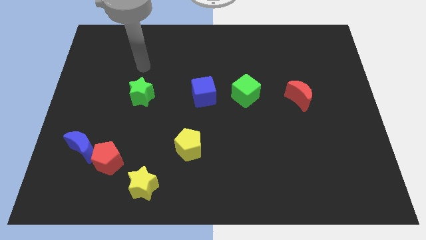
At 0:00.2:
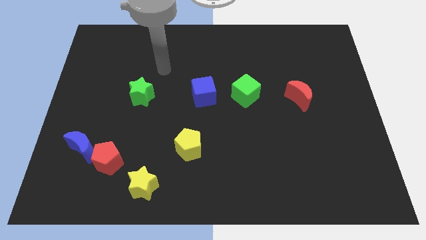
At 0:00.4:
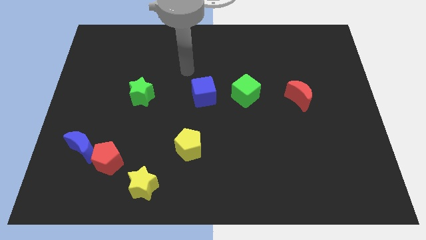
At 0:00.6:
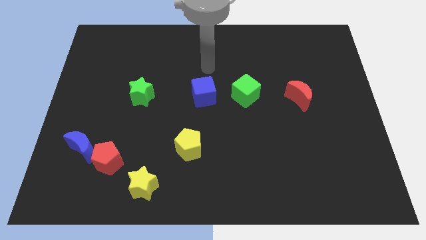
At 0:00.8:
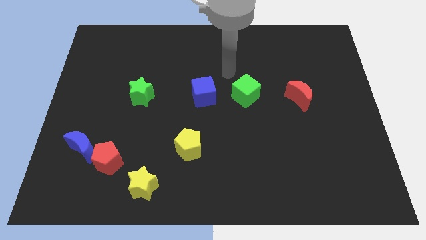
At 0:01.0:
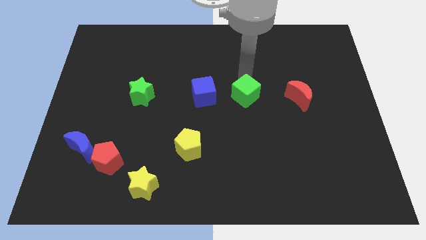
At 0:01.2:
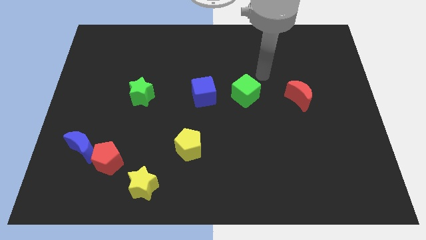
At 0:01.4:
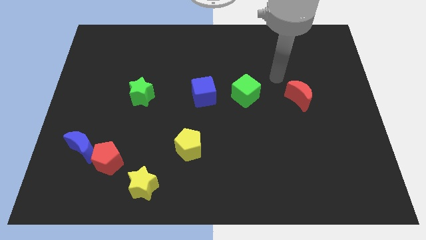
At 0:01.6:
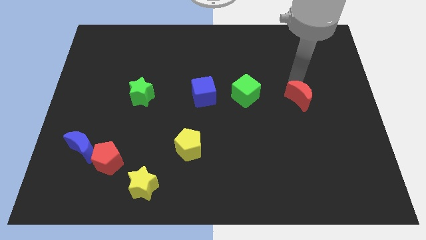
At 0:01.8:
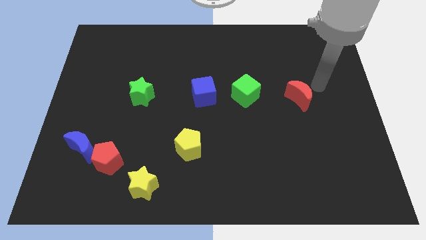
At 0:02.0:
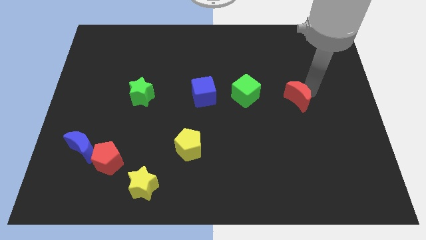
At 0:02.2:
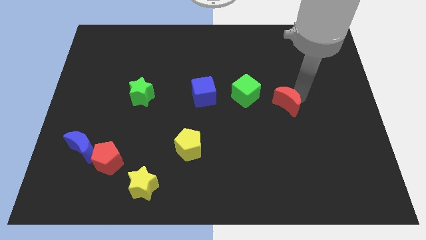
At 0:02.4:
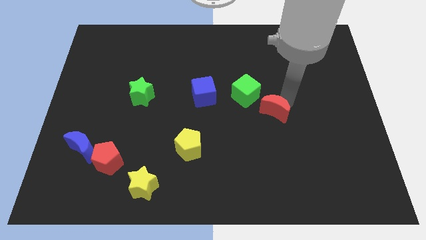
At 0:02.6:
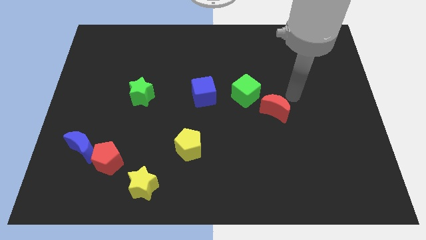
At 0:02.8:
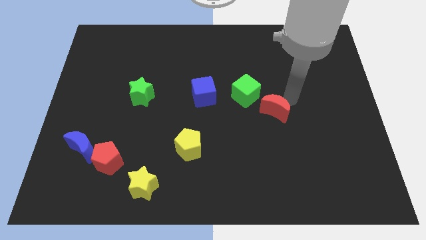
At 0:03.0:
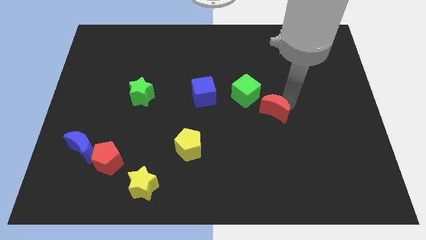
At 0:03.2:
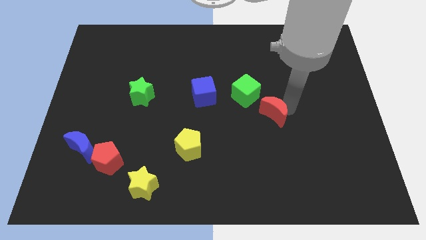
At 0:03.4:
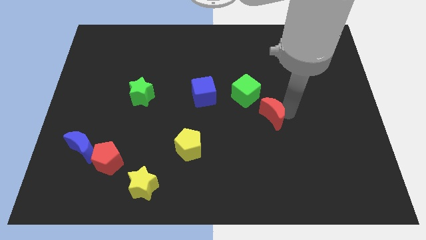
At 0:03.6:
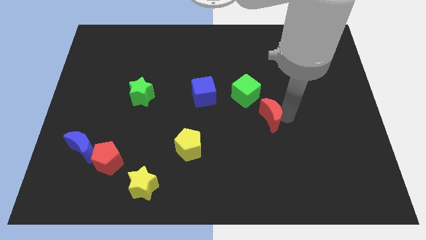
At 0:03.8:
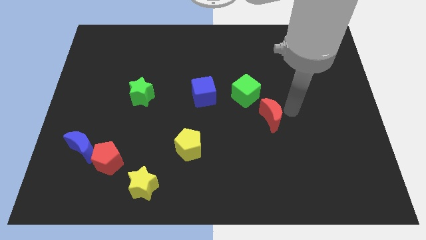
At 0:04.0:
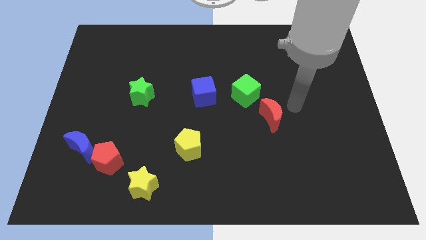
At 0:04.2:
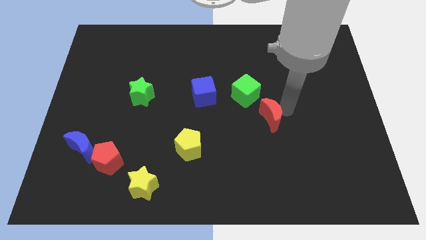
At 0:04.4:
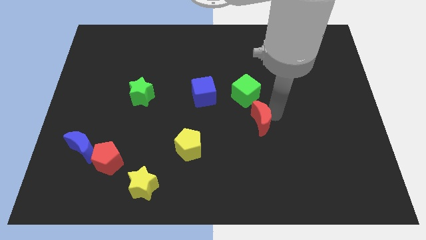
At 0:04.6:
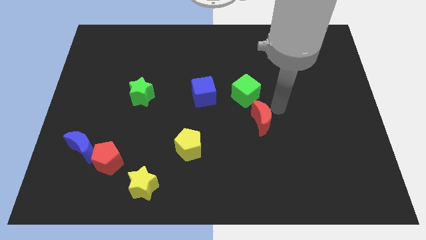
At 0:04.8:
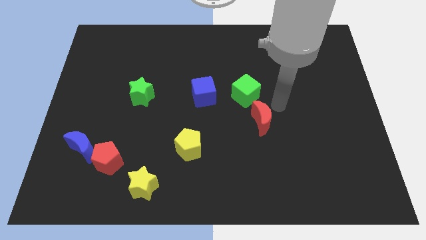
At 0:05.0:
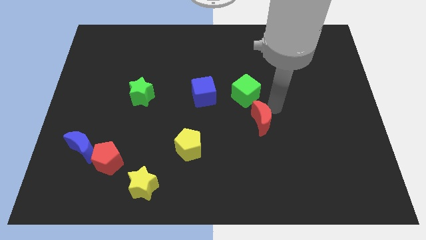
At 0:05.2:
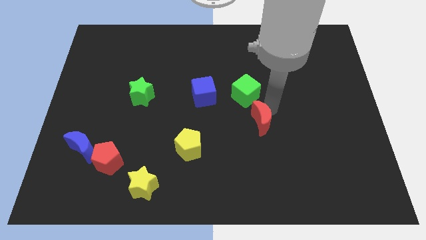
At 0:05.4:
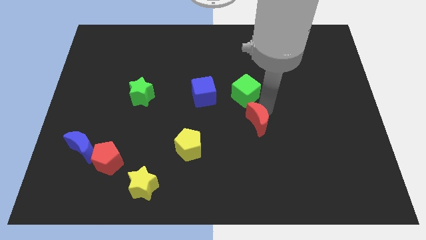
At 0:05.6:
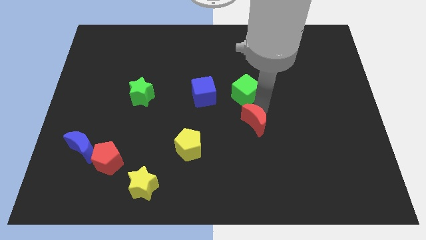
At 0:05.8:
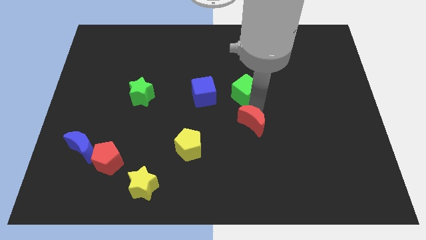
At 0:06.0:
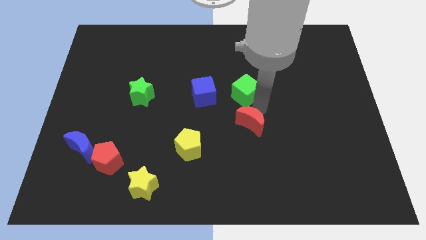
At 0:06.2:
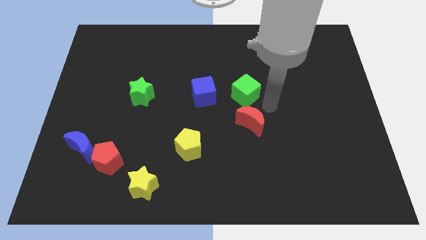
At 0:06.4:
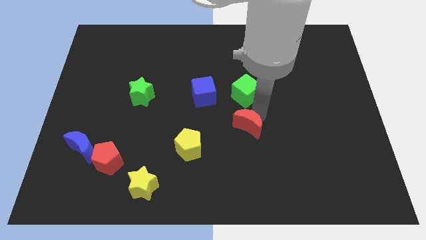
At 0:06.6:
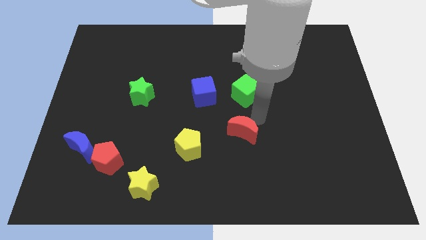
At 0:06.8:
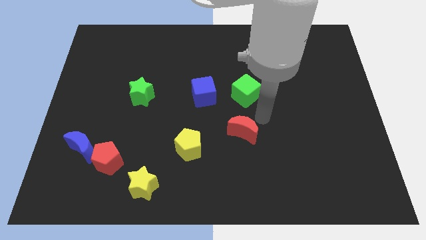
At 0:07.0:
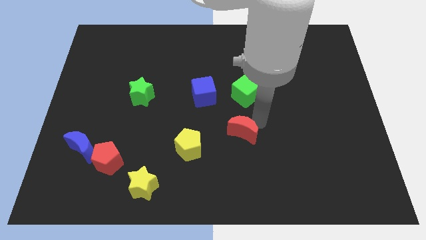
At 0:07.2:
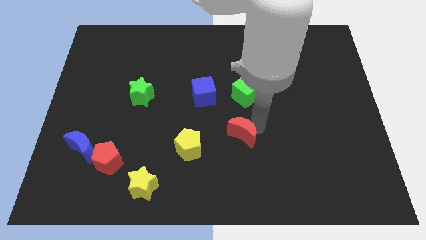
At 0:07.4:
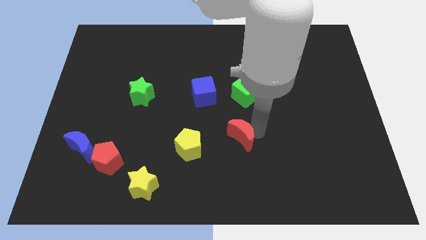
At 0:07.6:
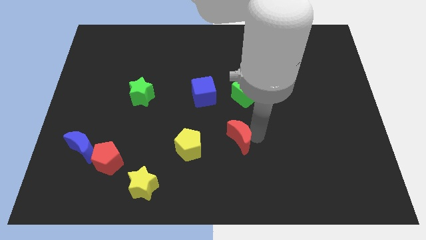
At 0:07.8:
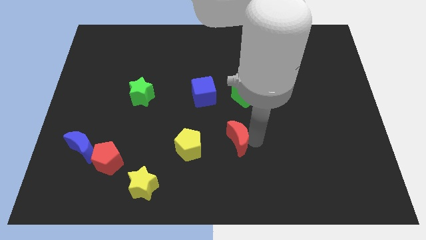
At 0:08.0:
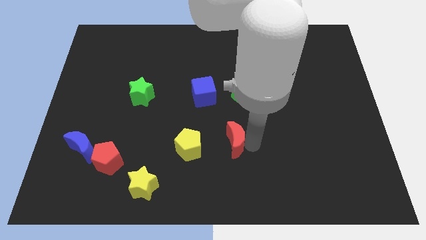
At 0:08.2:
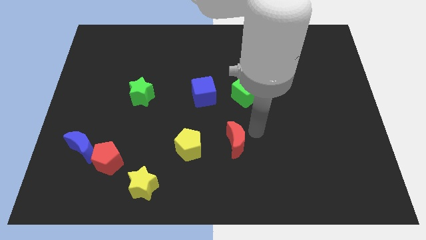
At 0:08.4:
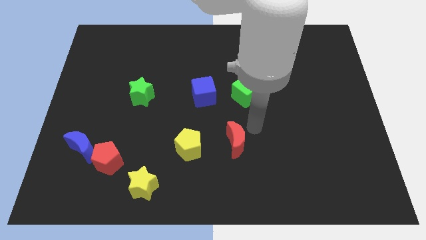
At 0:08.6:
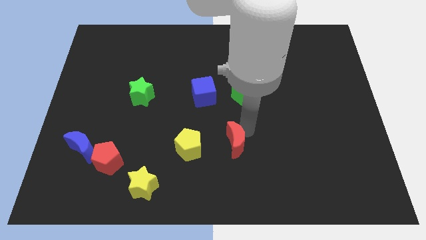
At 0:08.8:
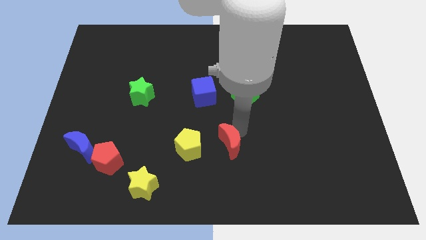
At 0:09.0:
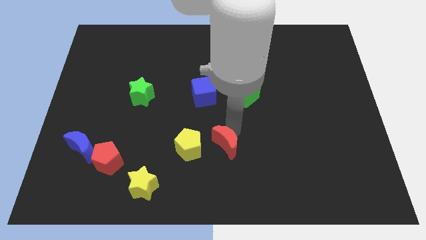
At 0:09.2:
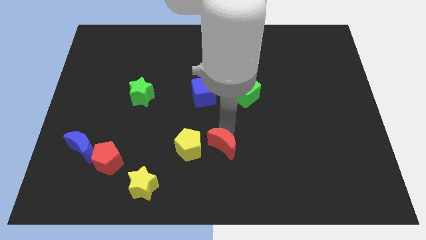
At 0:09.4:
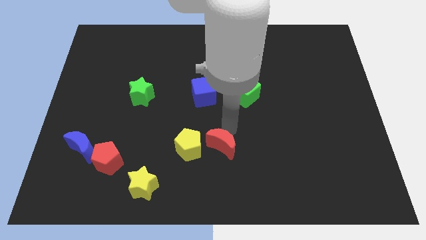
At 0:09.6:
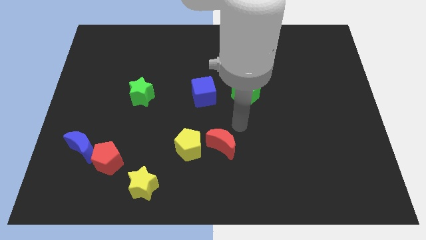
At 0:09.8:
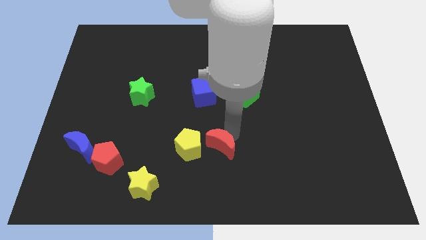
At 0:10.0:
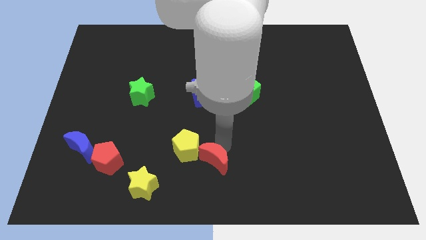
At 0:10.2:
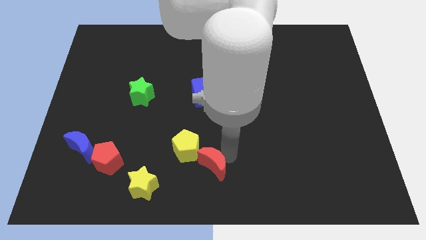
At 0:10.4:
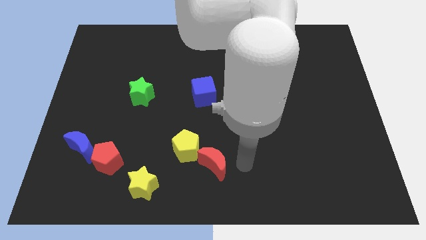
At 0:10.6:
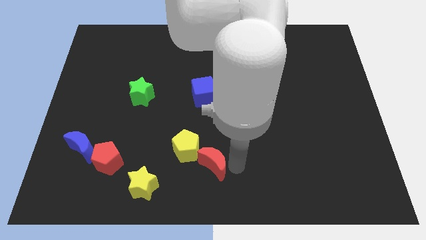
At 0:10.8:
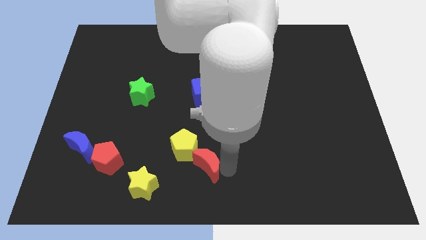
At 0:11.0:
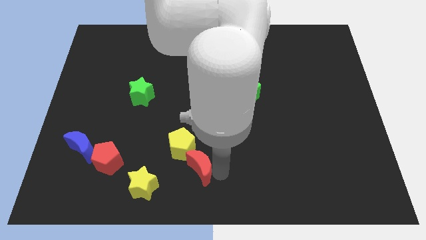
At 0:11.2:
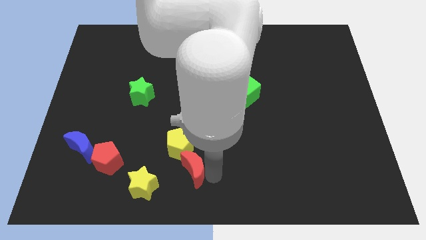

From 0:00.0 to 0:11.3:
move the red moon to the top right side of the yellow star

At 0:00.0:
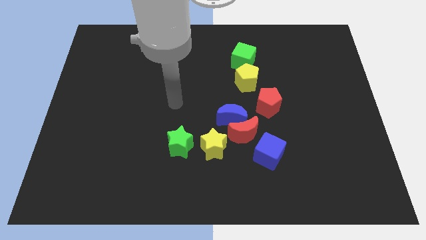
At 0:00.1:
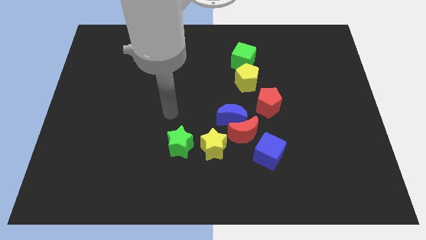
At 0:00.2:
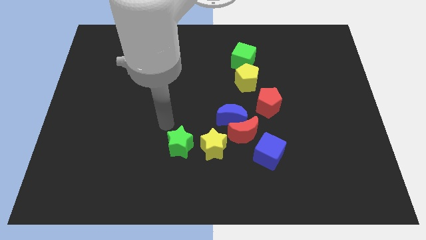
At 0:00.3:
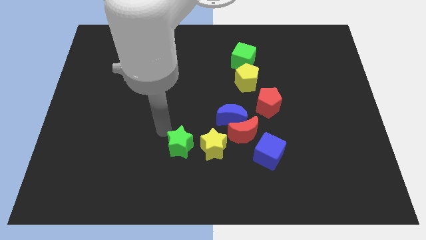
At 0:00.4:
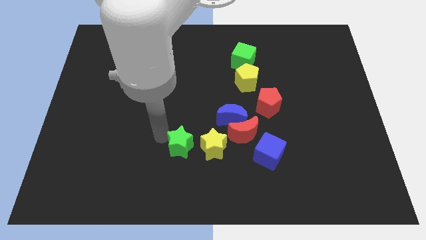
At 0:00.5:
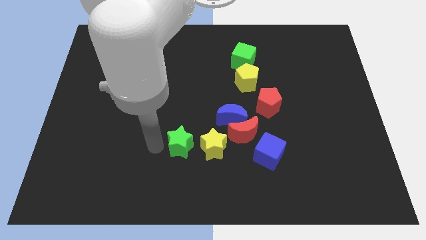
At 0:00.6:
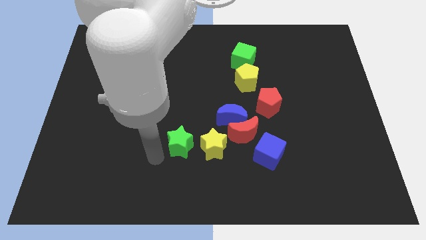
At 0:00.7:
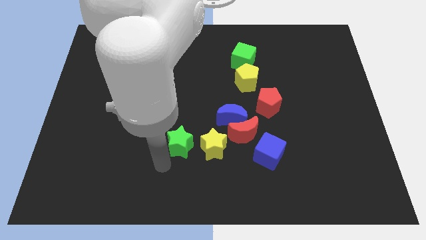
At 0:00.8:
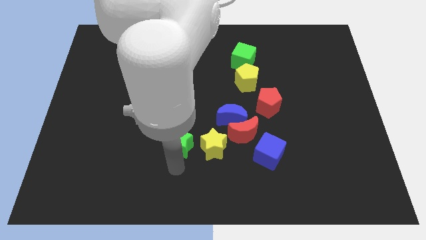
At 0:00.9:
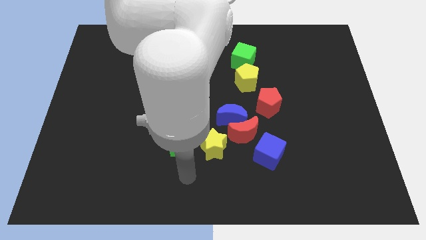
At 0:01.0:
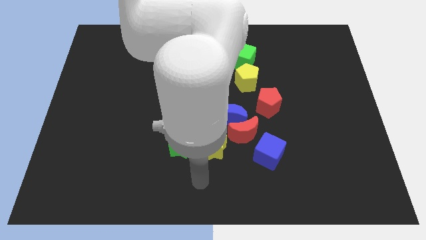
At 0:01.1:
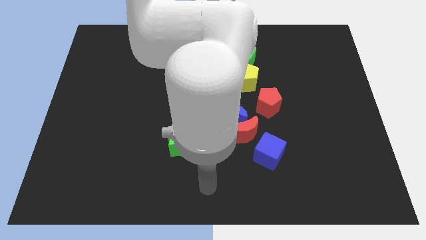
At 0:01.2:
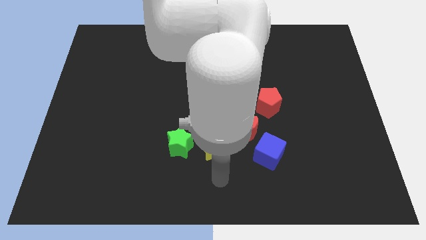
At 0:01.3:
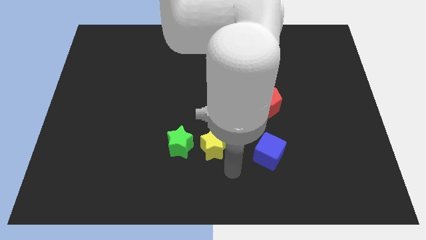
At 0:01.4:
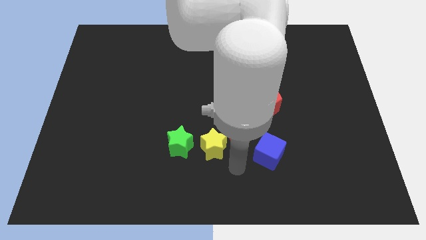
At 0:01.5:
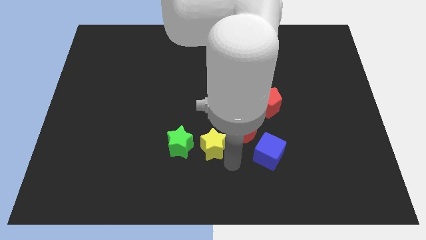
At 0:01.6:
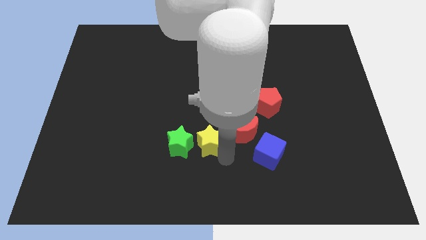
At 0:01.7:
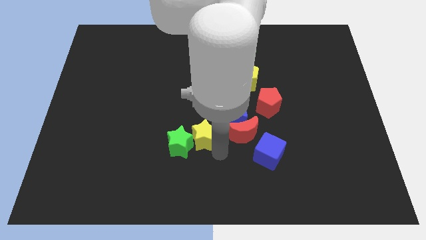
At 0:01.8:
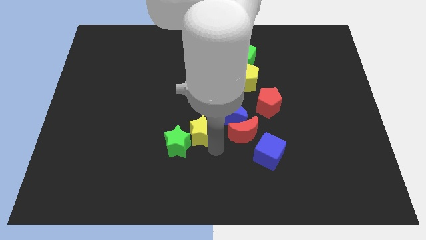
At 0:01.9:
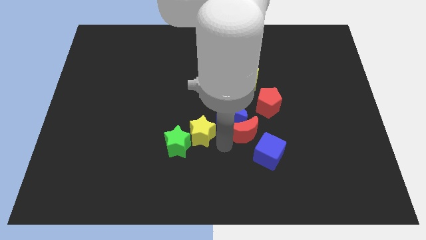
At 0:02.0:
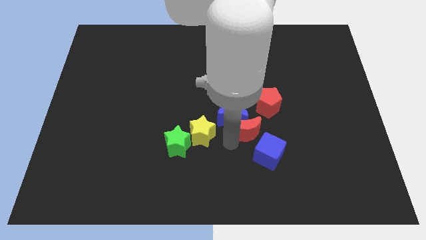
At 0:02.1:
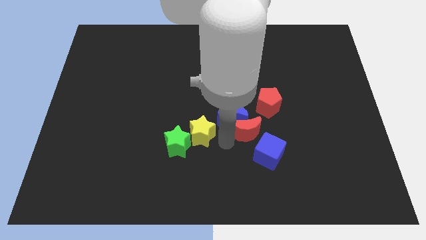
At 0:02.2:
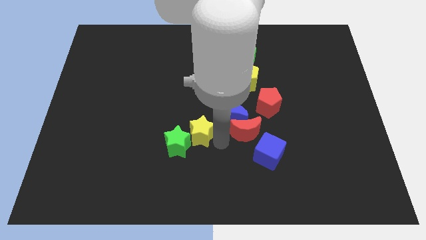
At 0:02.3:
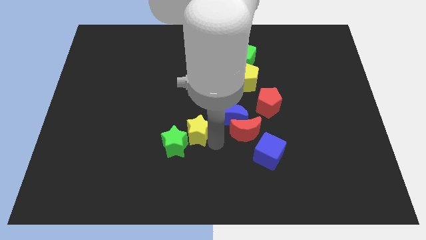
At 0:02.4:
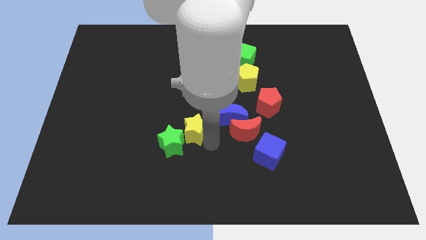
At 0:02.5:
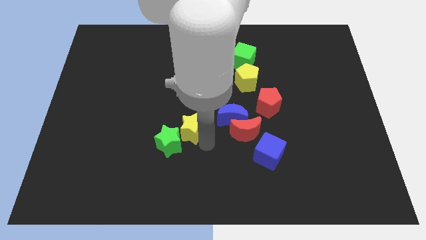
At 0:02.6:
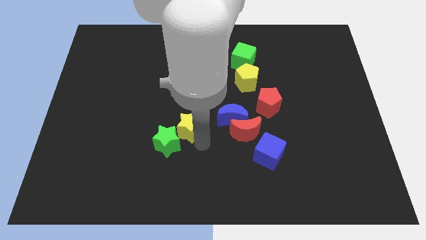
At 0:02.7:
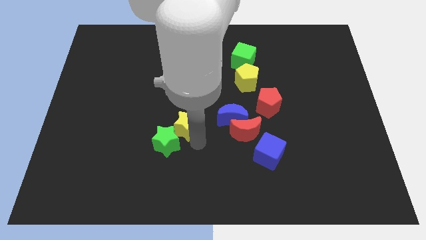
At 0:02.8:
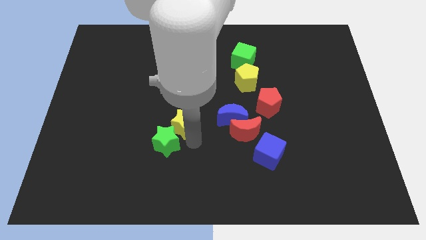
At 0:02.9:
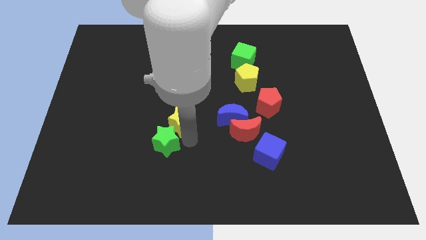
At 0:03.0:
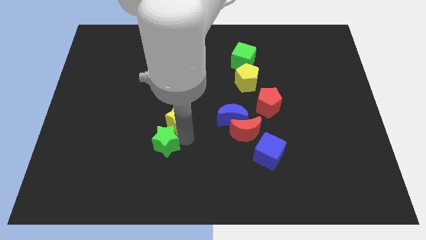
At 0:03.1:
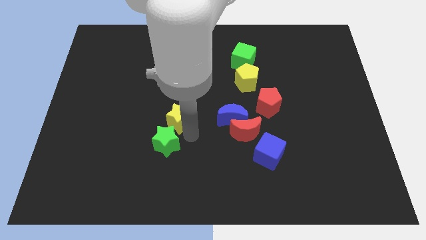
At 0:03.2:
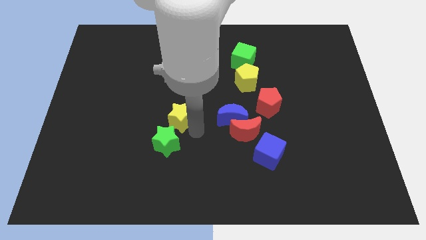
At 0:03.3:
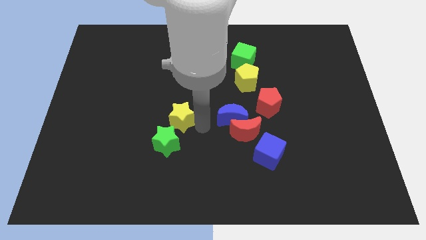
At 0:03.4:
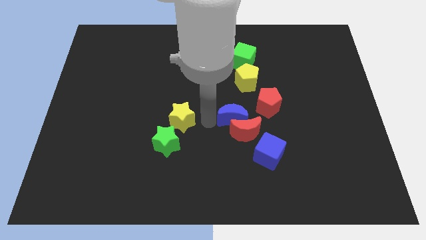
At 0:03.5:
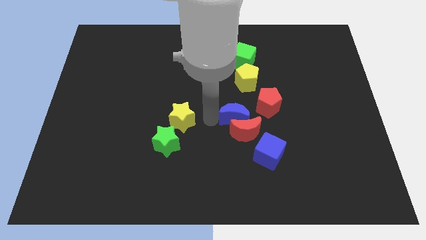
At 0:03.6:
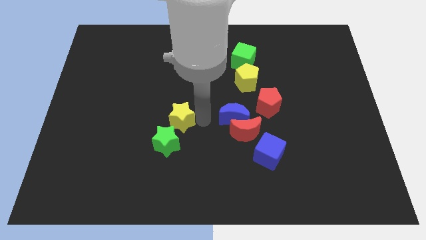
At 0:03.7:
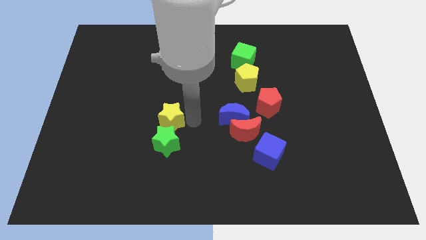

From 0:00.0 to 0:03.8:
slide the yellow star to the top left of the green star
